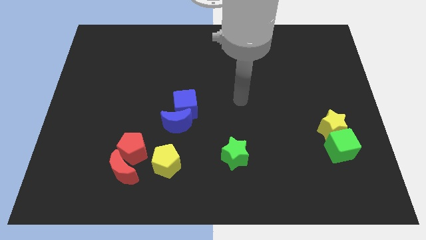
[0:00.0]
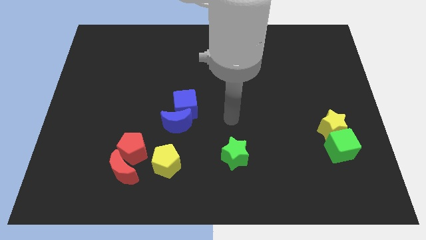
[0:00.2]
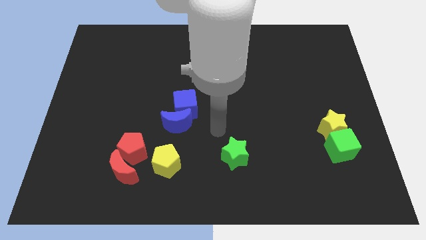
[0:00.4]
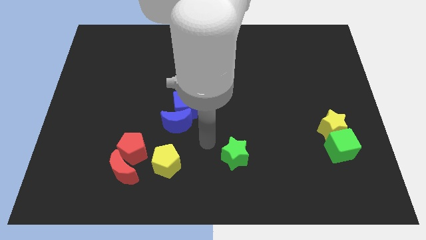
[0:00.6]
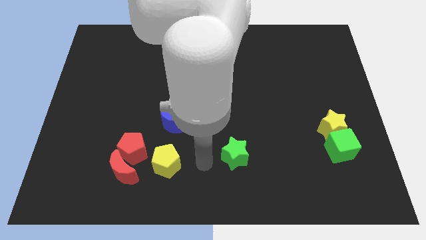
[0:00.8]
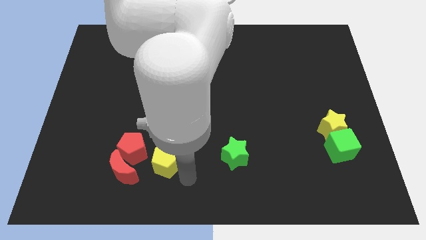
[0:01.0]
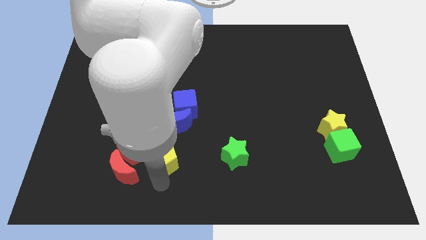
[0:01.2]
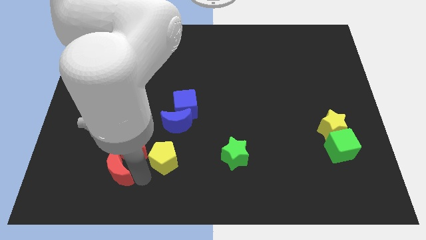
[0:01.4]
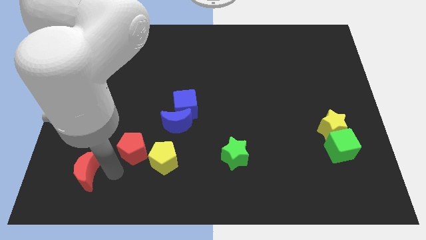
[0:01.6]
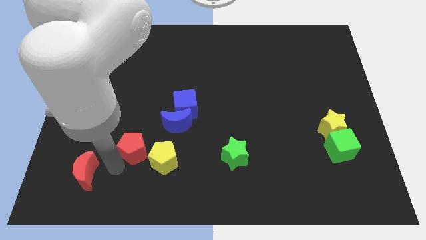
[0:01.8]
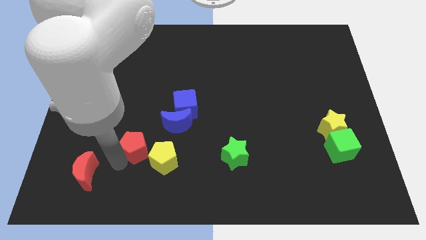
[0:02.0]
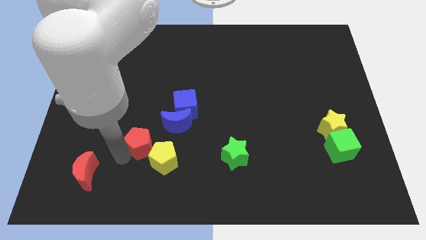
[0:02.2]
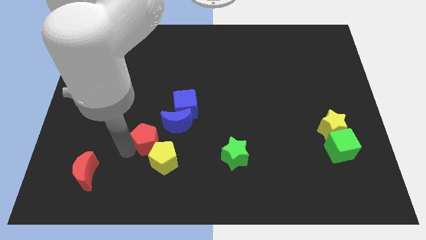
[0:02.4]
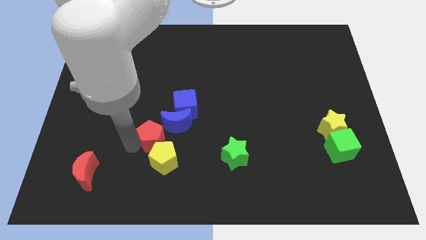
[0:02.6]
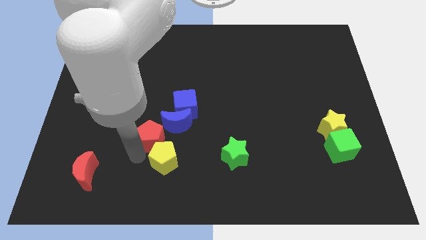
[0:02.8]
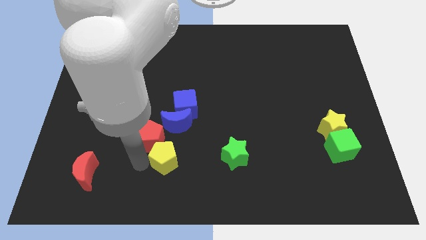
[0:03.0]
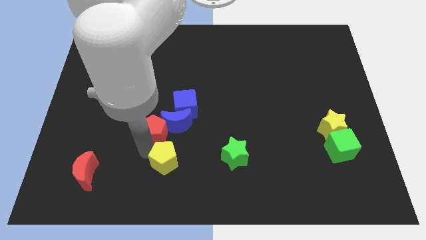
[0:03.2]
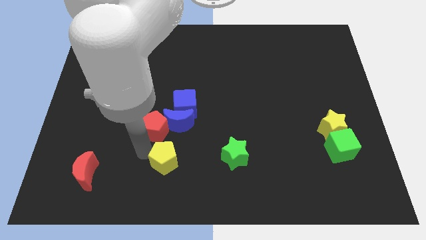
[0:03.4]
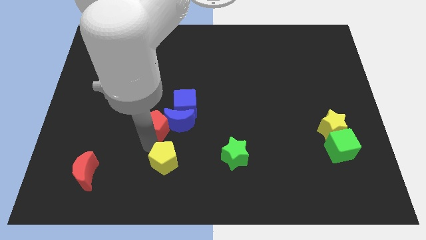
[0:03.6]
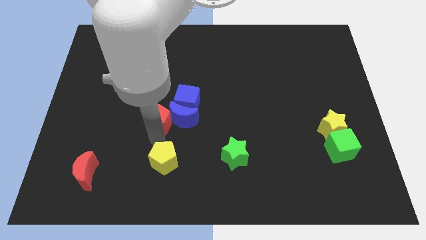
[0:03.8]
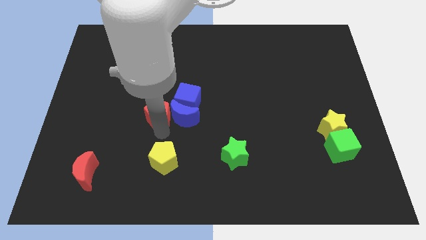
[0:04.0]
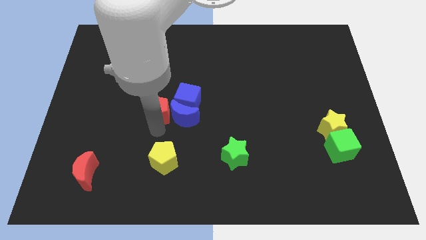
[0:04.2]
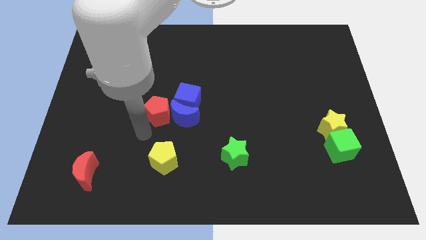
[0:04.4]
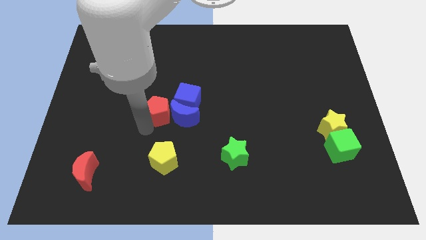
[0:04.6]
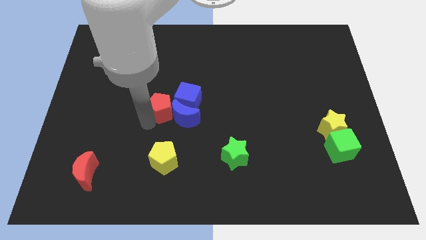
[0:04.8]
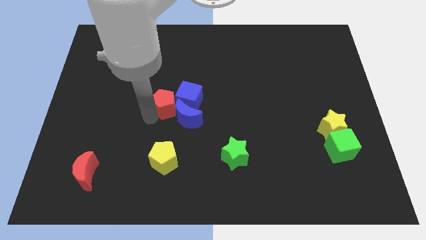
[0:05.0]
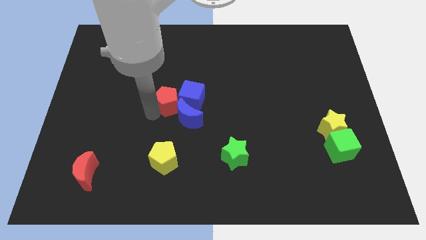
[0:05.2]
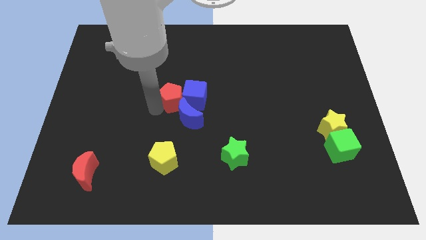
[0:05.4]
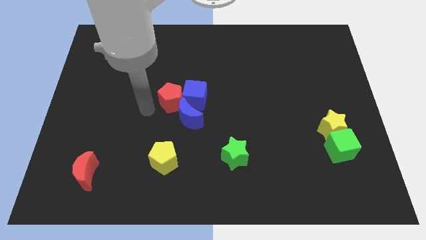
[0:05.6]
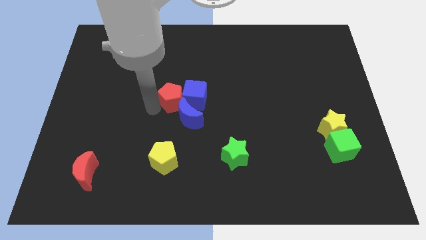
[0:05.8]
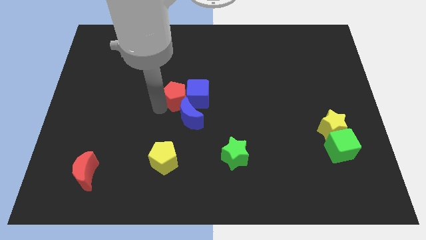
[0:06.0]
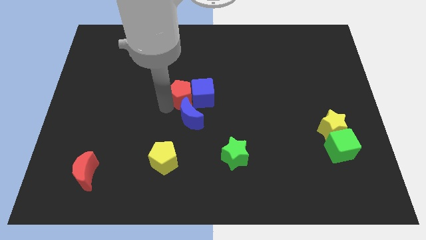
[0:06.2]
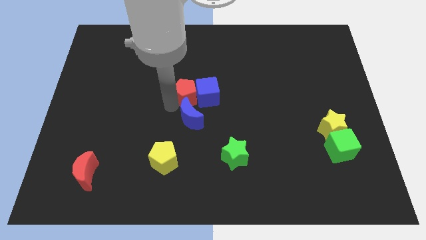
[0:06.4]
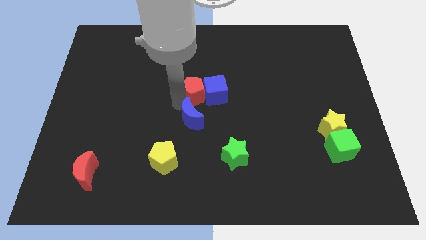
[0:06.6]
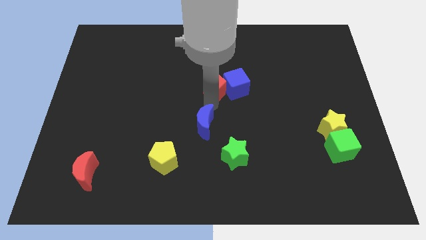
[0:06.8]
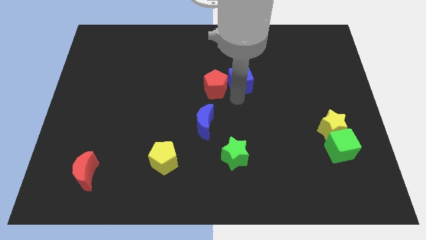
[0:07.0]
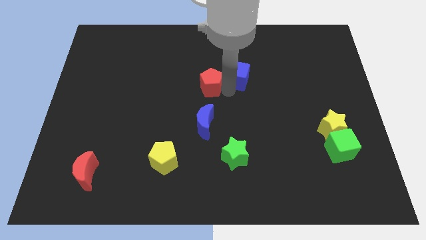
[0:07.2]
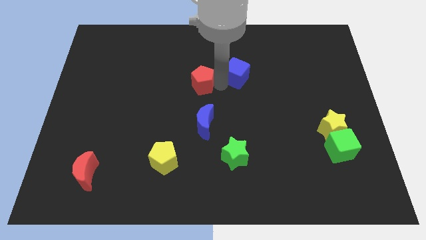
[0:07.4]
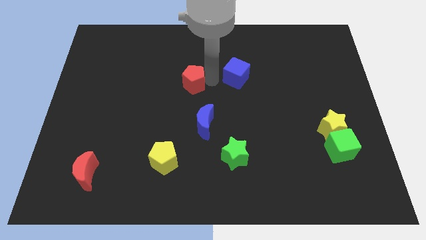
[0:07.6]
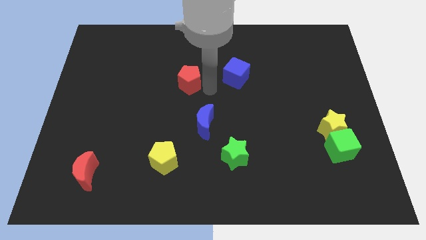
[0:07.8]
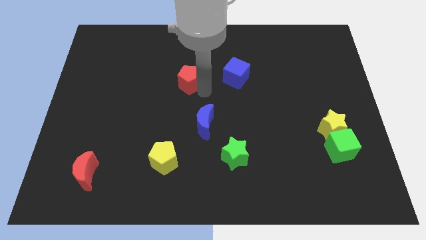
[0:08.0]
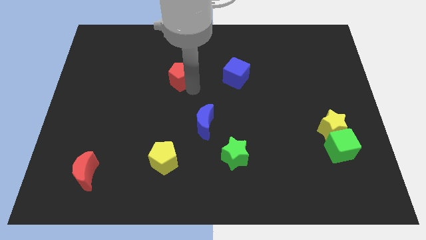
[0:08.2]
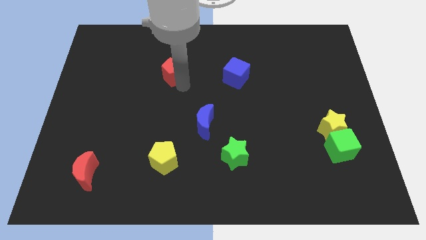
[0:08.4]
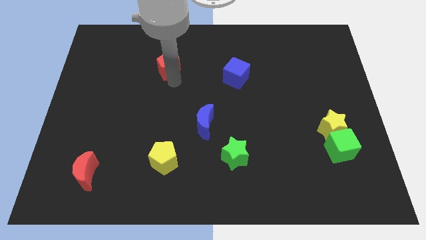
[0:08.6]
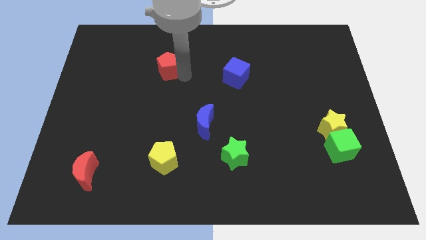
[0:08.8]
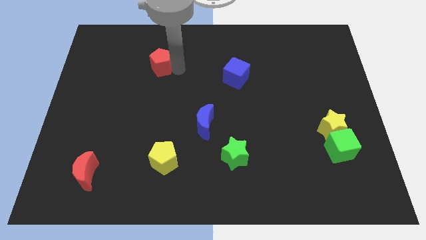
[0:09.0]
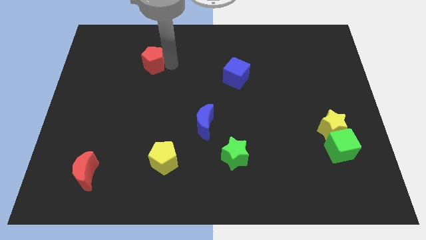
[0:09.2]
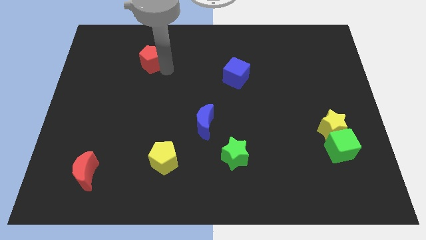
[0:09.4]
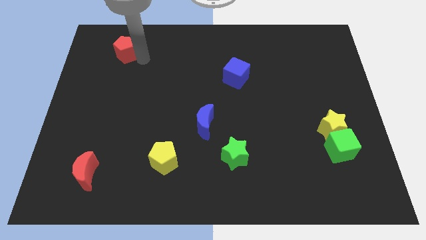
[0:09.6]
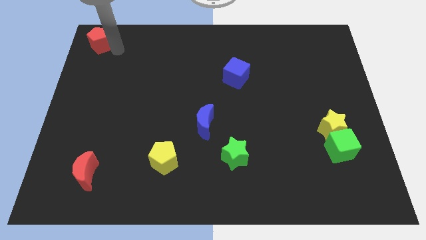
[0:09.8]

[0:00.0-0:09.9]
move the red pentagon to the top left corner
